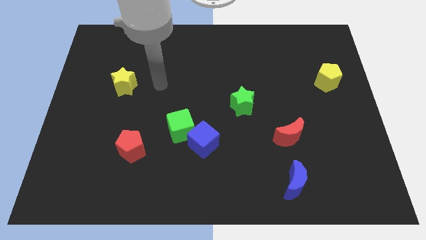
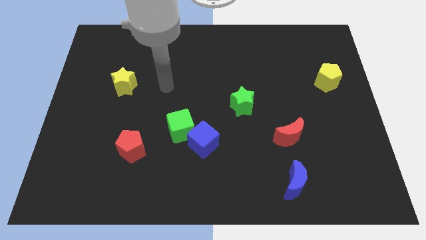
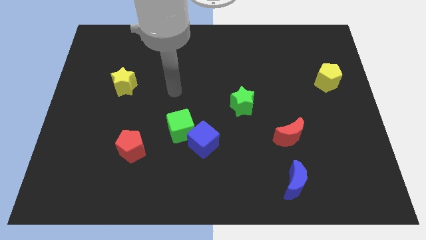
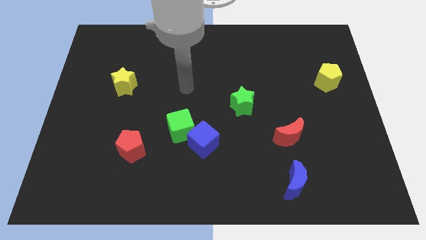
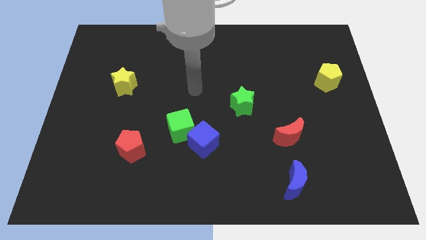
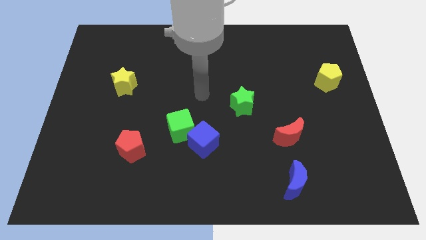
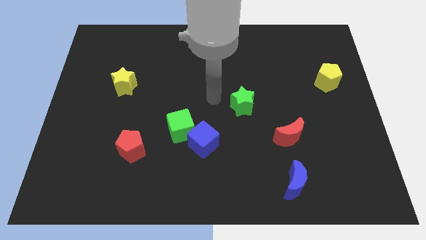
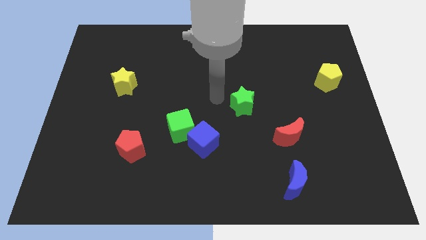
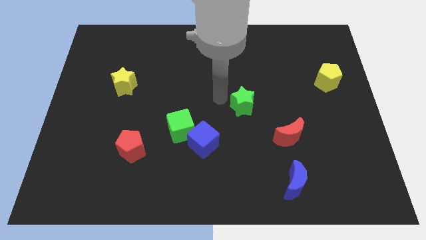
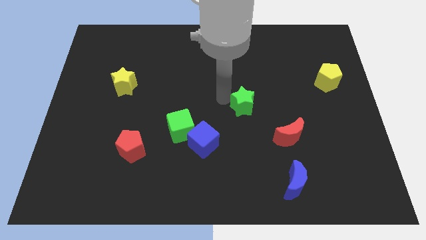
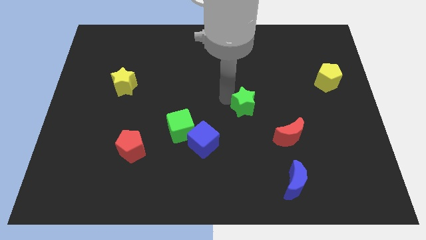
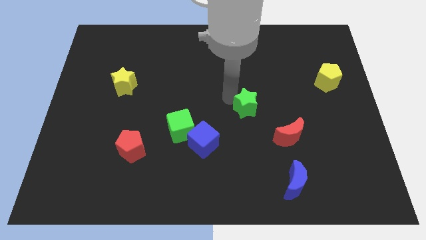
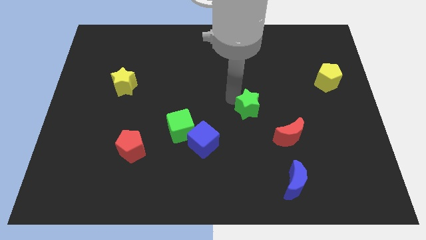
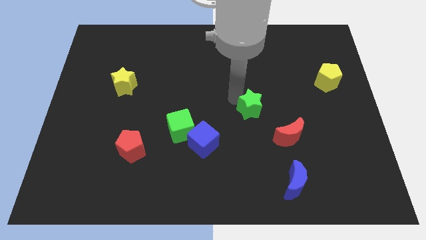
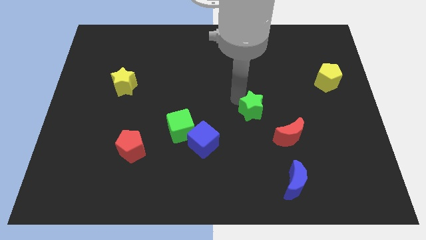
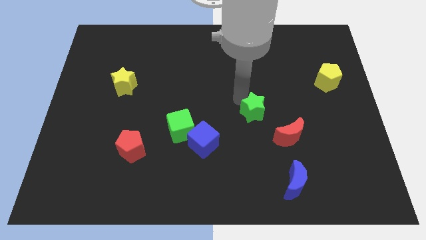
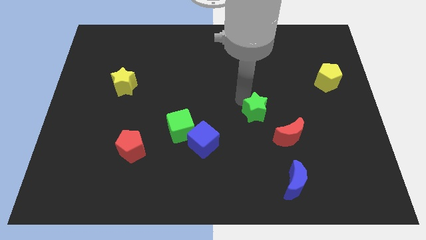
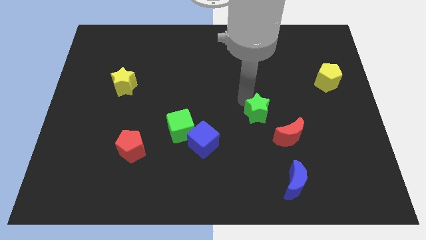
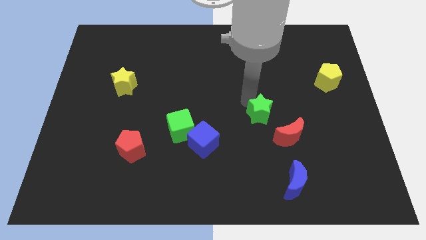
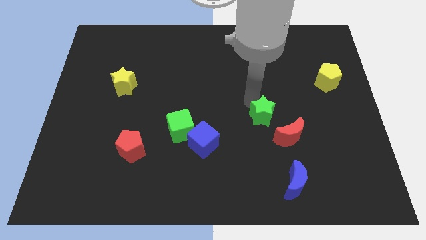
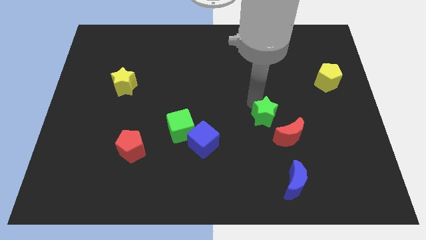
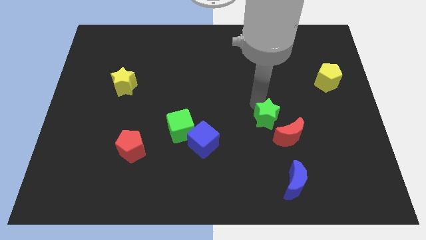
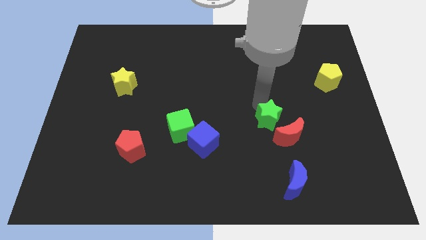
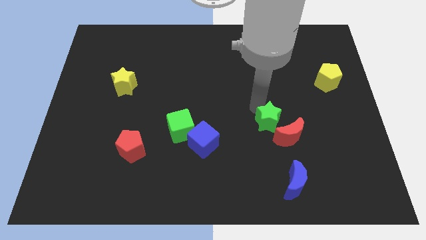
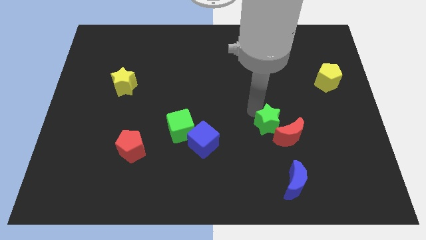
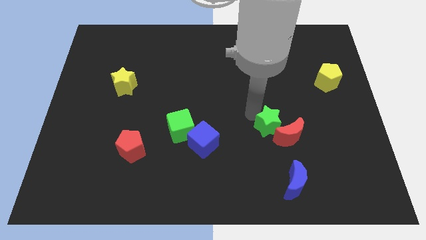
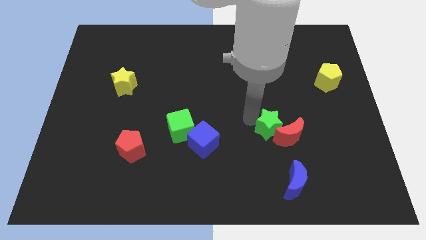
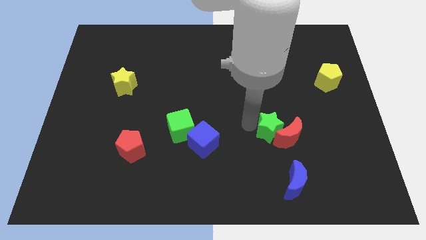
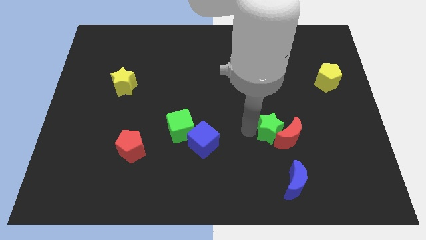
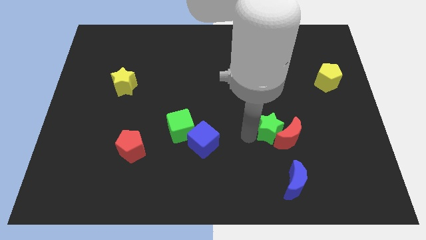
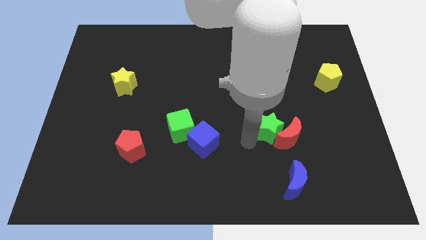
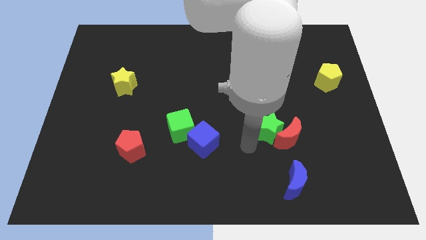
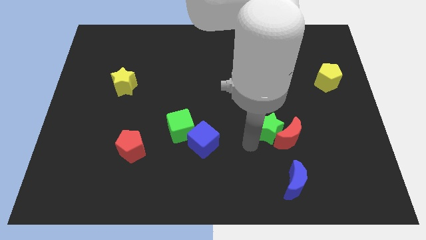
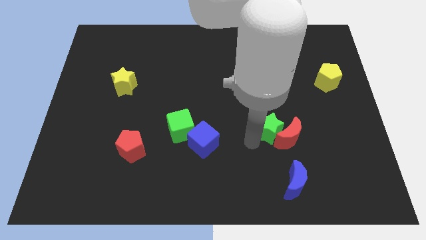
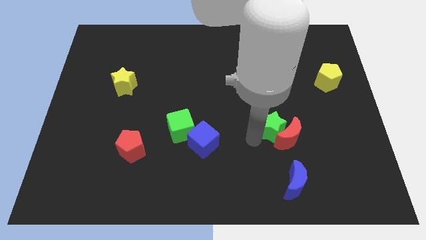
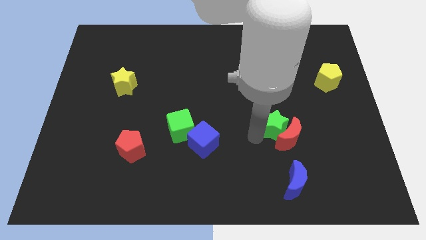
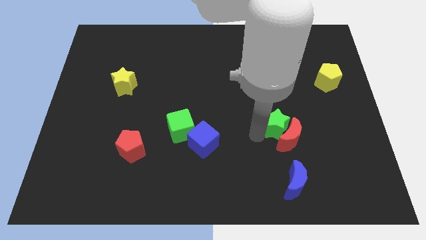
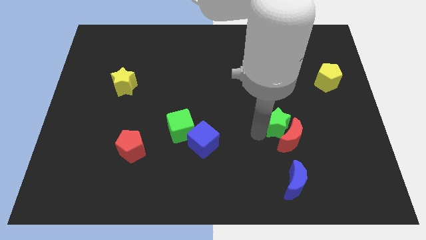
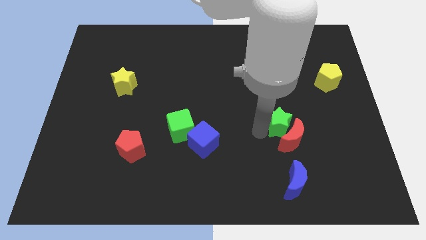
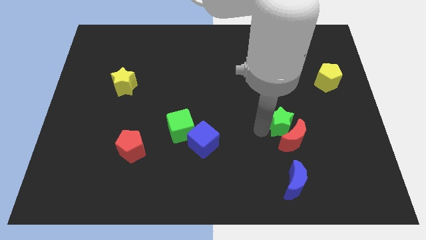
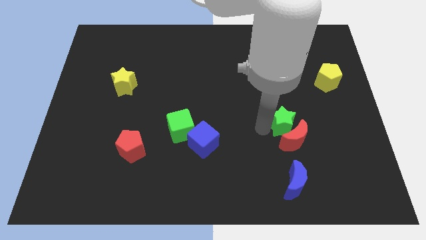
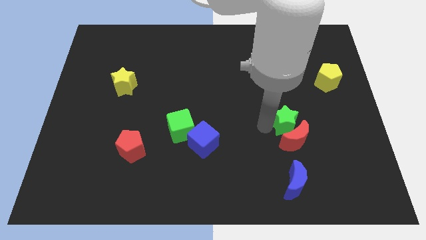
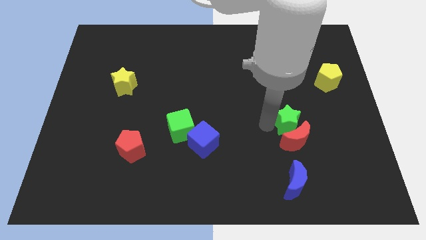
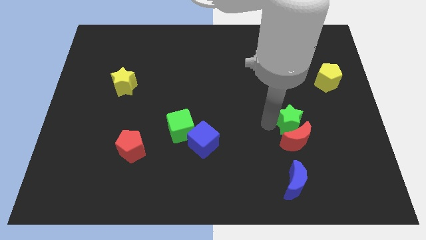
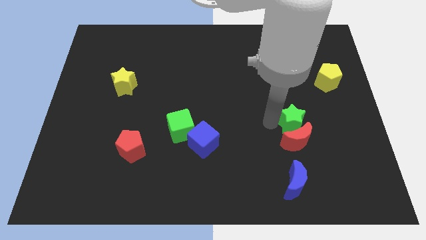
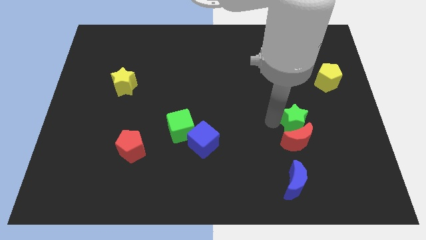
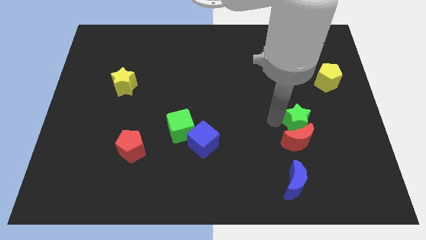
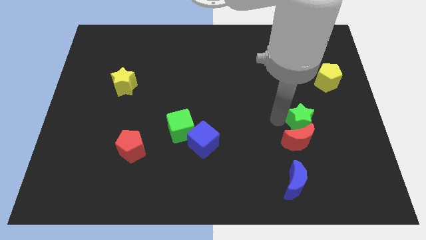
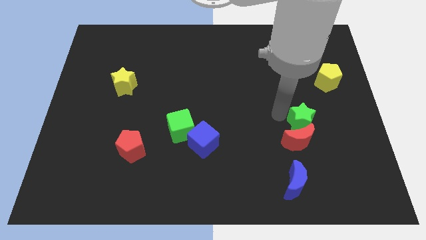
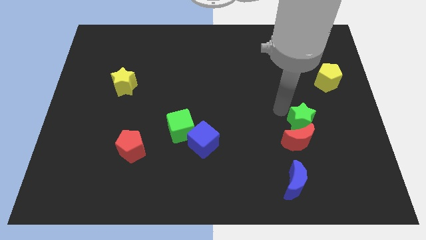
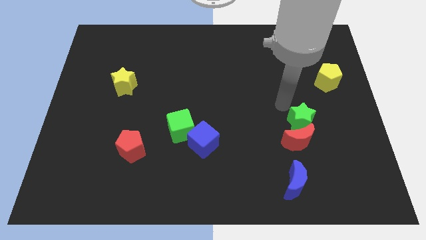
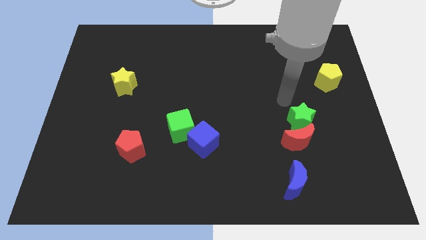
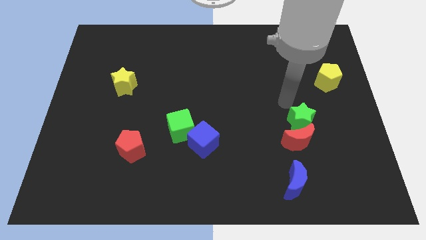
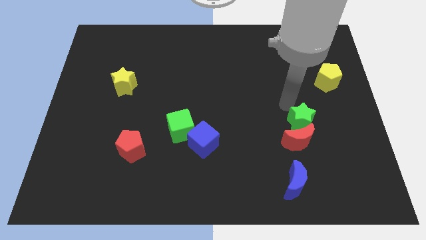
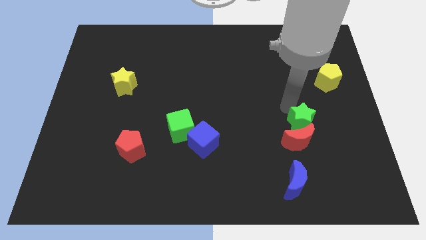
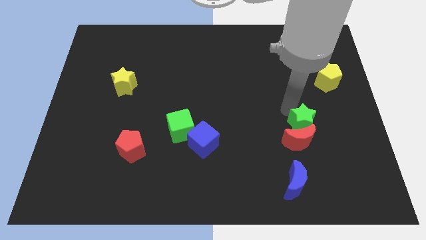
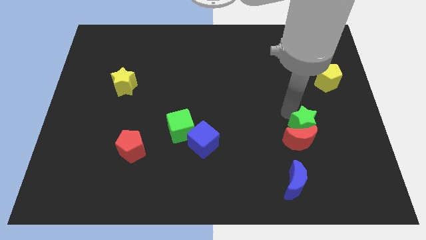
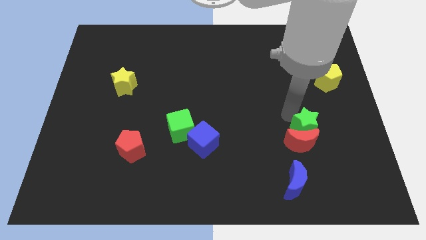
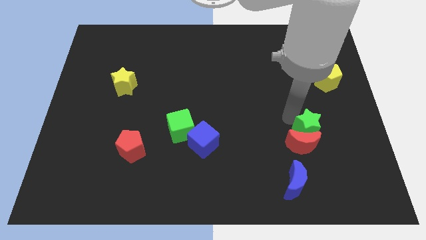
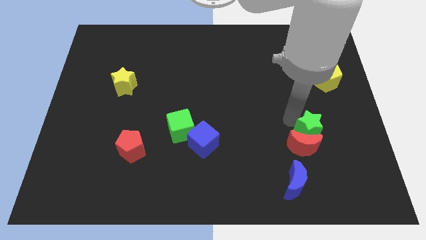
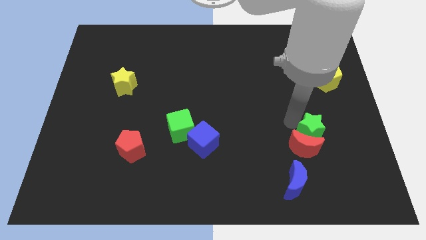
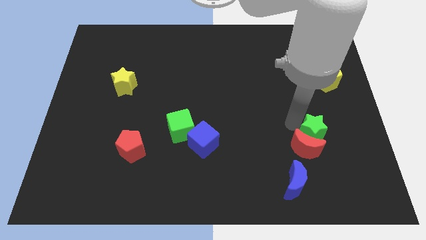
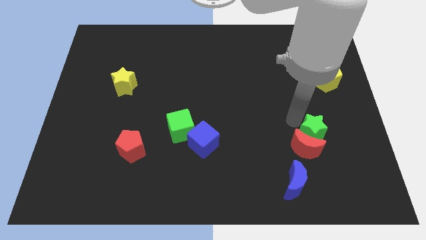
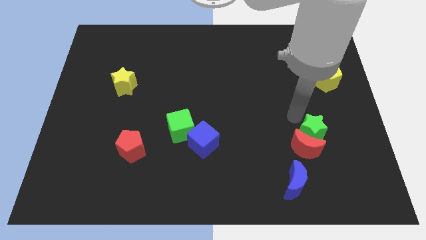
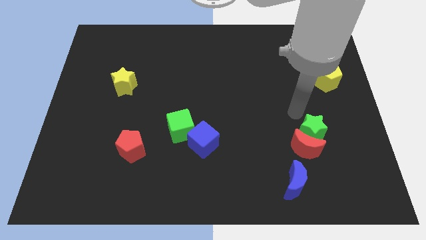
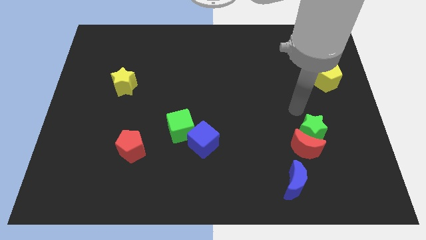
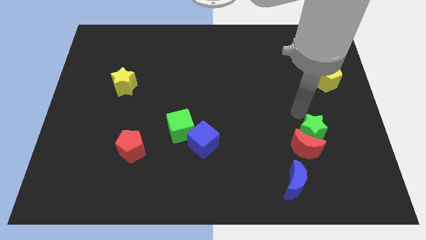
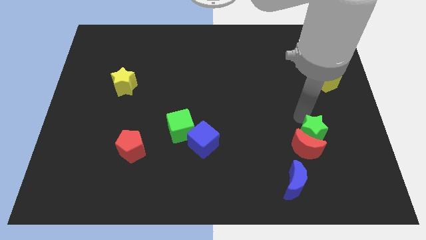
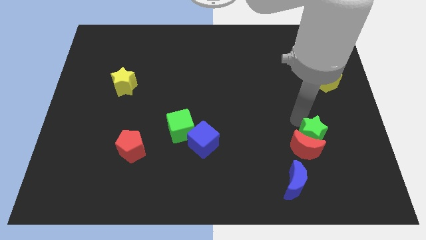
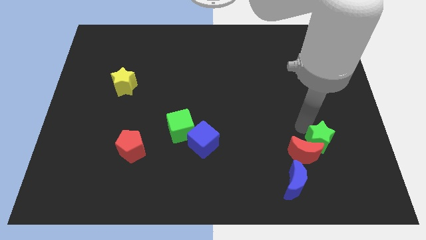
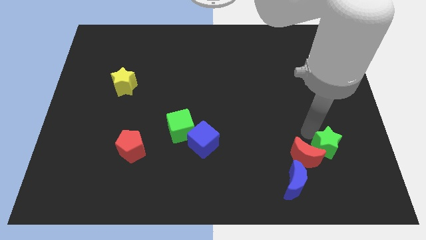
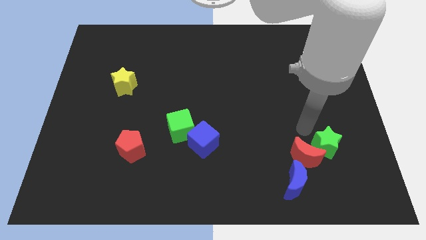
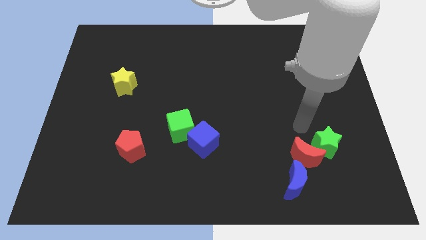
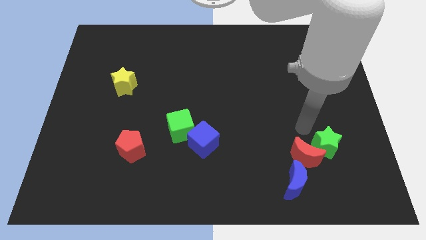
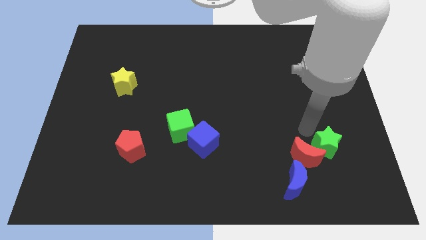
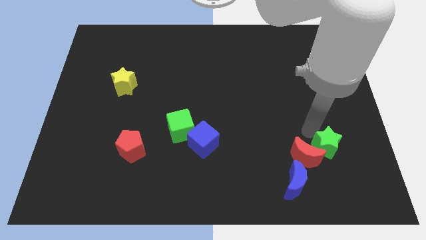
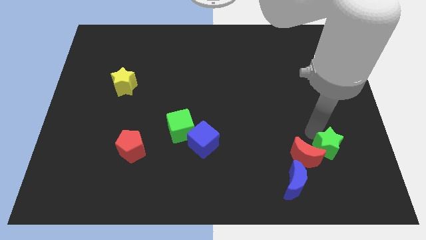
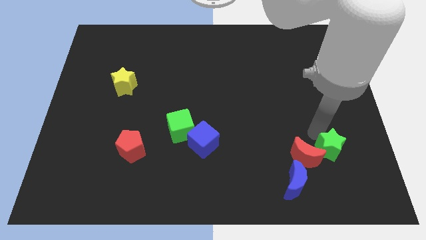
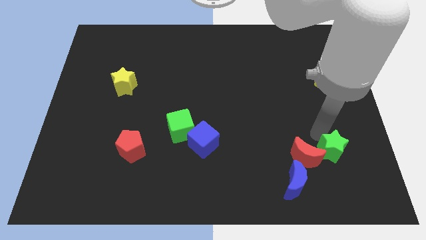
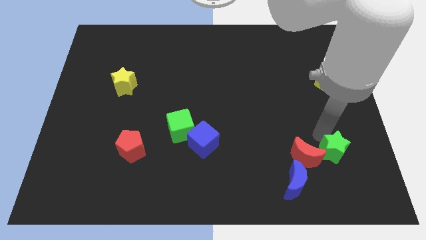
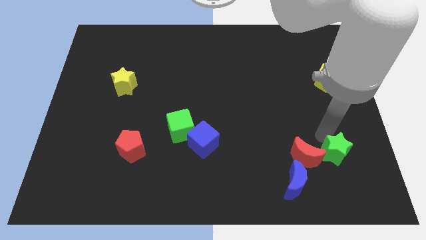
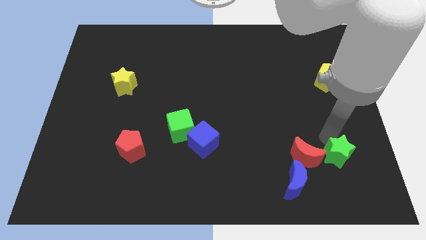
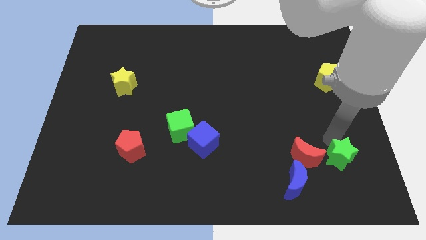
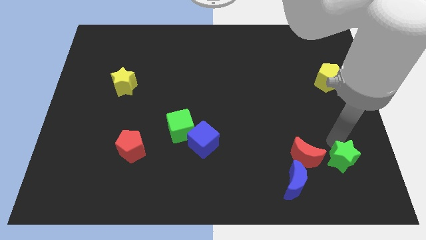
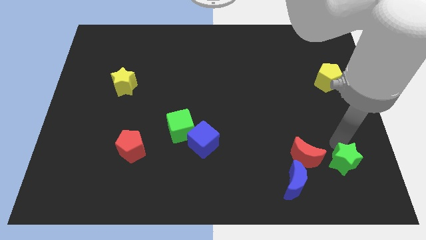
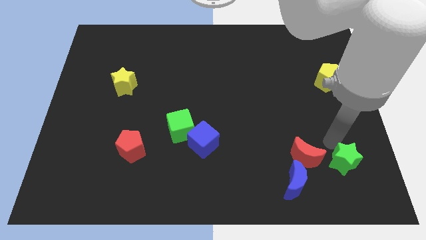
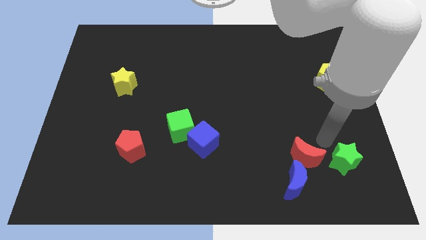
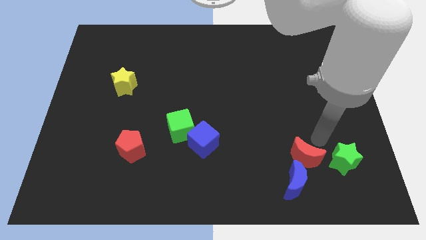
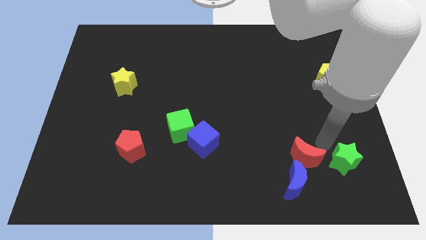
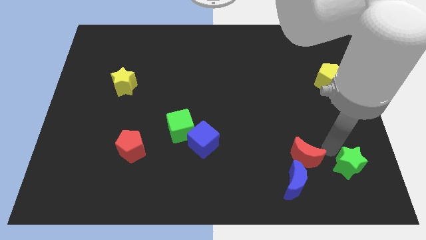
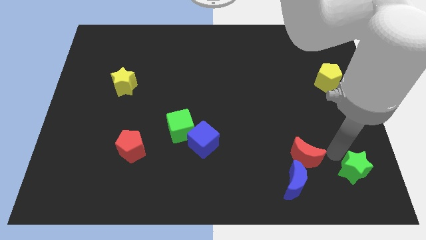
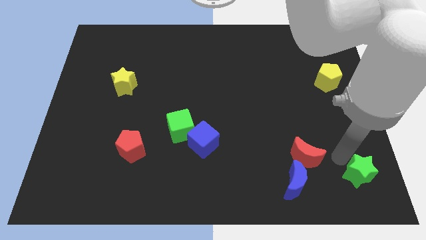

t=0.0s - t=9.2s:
slide the green star to the bottom right
